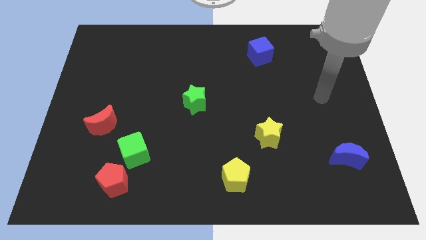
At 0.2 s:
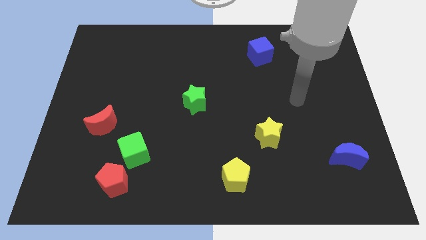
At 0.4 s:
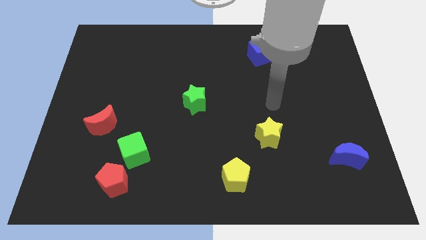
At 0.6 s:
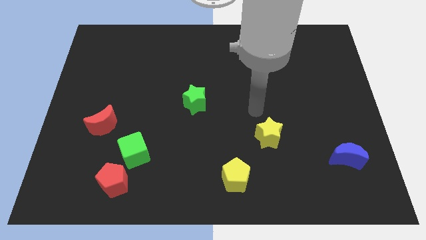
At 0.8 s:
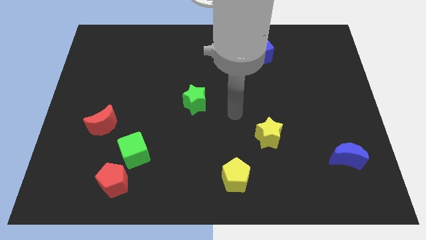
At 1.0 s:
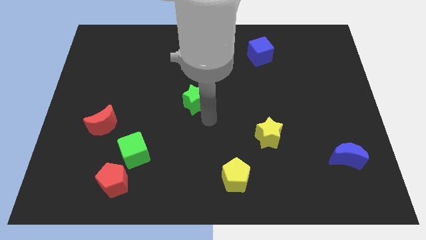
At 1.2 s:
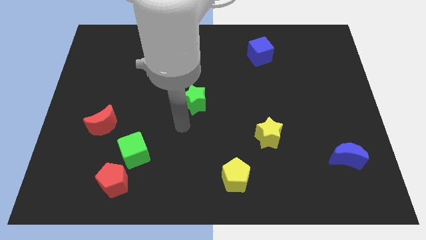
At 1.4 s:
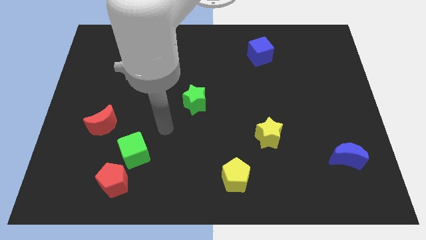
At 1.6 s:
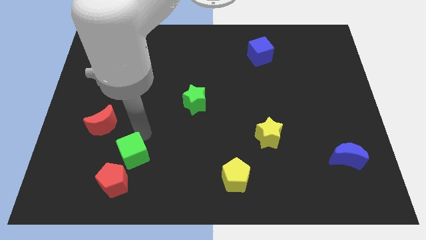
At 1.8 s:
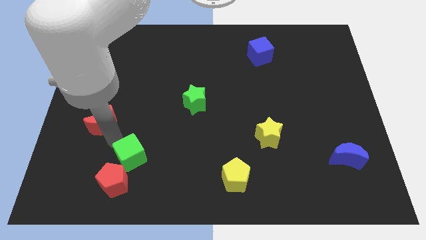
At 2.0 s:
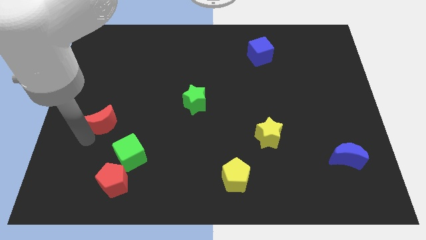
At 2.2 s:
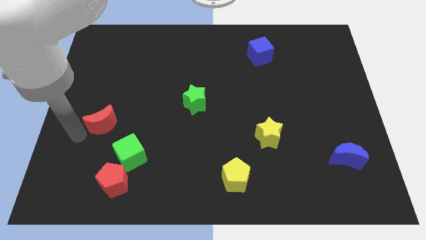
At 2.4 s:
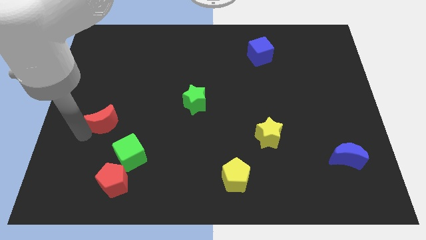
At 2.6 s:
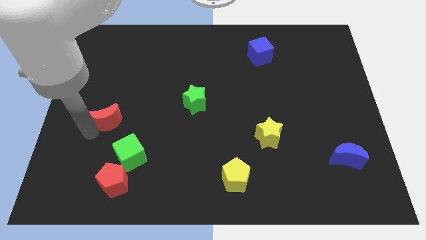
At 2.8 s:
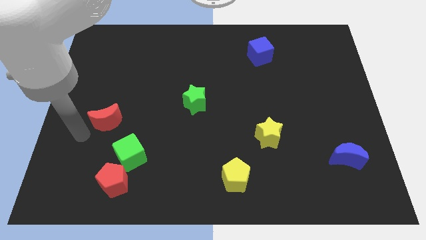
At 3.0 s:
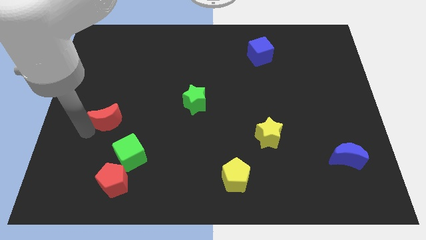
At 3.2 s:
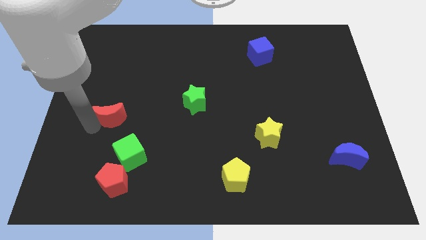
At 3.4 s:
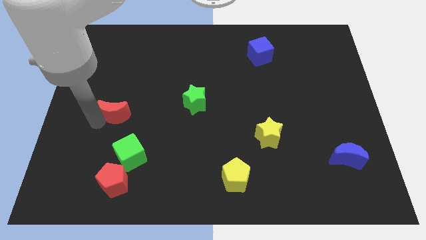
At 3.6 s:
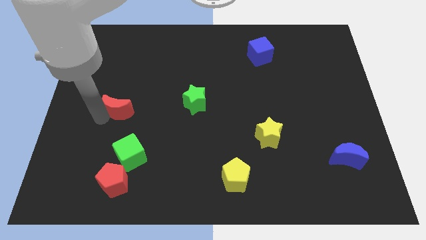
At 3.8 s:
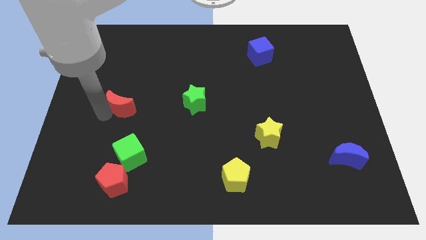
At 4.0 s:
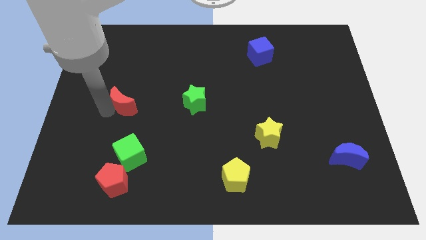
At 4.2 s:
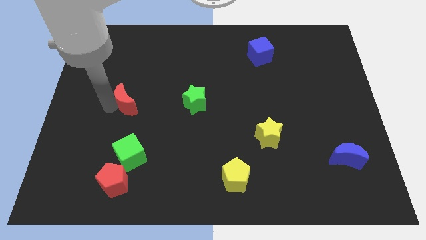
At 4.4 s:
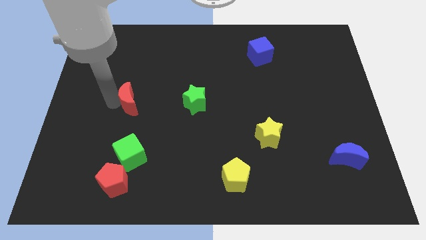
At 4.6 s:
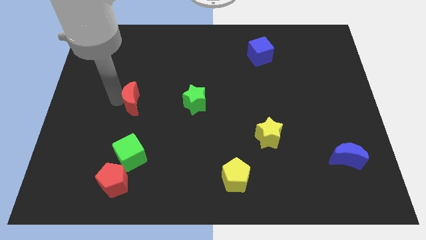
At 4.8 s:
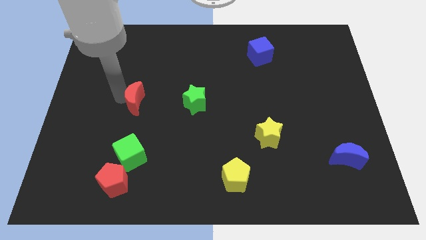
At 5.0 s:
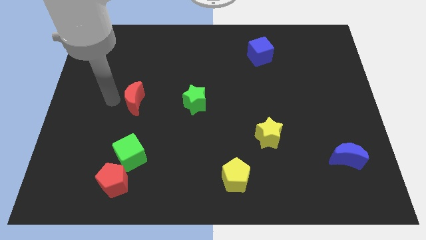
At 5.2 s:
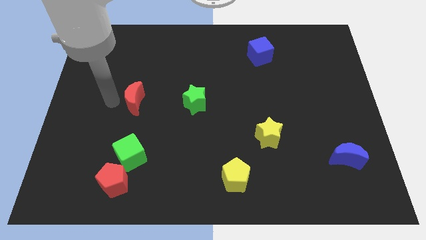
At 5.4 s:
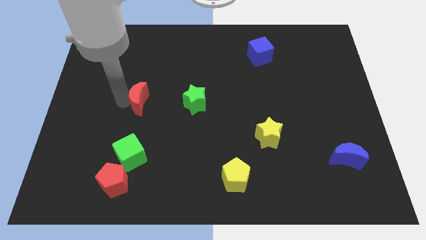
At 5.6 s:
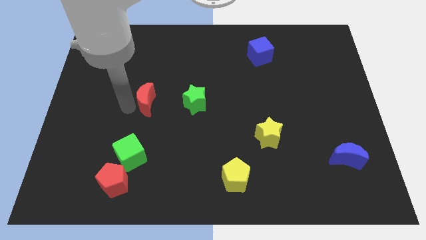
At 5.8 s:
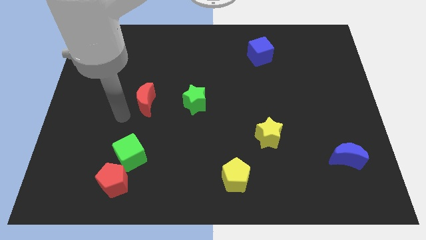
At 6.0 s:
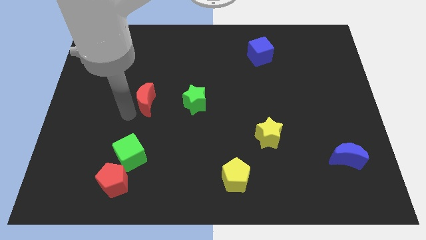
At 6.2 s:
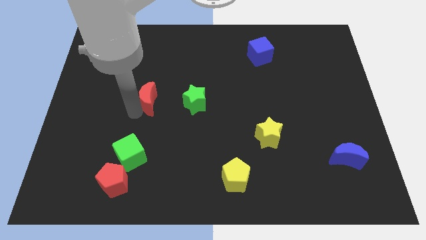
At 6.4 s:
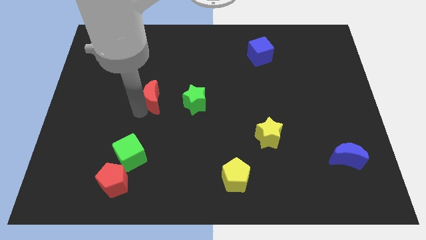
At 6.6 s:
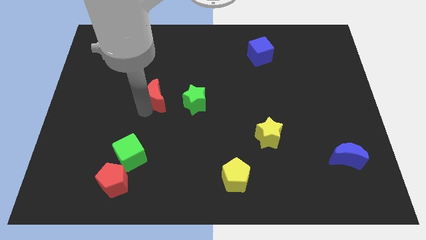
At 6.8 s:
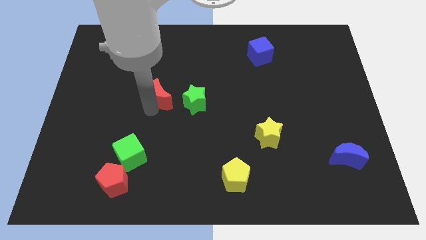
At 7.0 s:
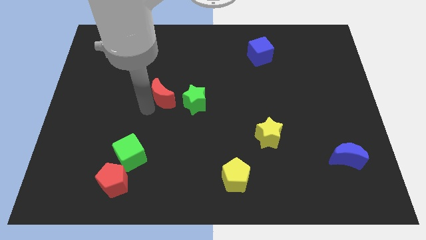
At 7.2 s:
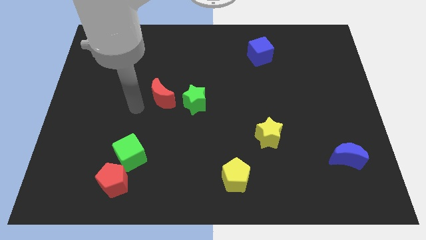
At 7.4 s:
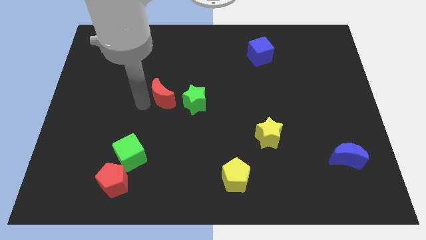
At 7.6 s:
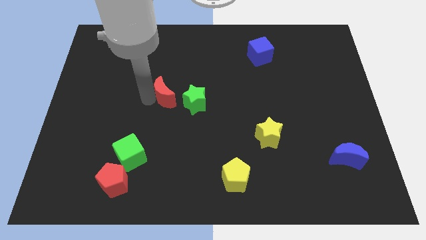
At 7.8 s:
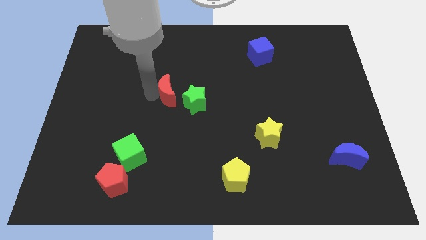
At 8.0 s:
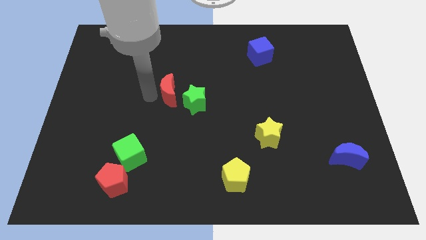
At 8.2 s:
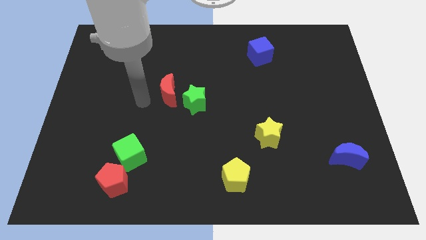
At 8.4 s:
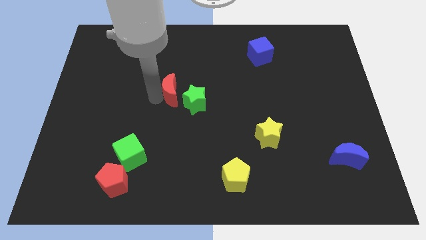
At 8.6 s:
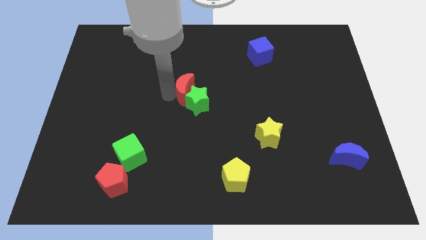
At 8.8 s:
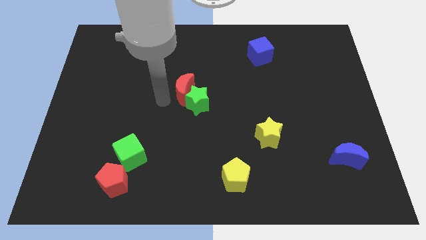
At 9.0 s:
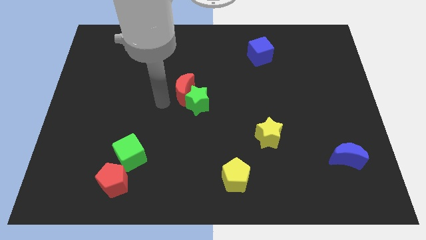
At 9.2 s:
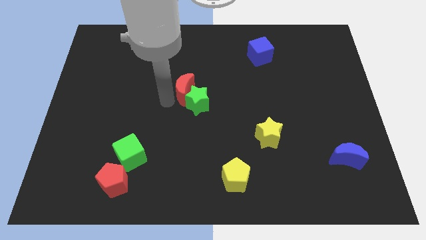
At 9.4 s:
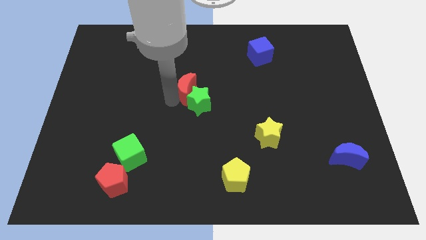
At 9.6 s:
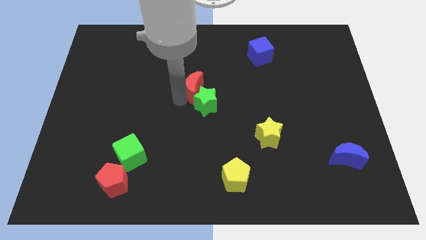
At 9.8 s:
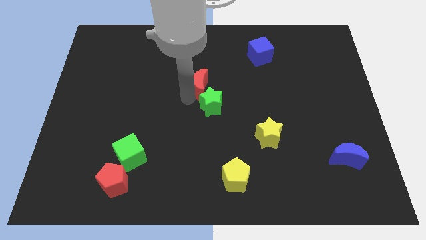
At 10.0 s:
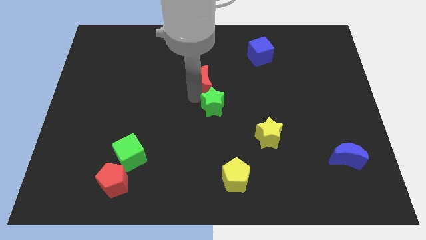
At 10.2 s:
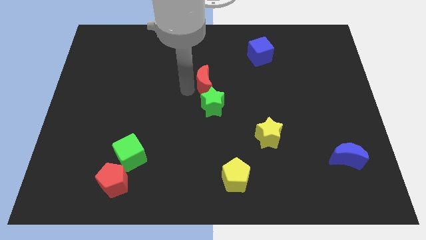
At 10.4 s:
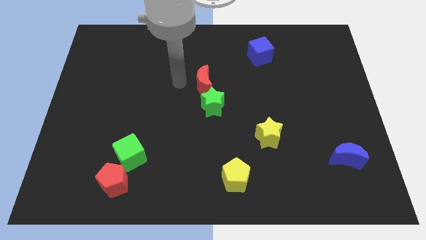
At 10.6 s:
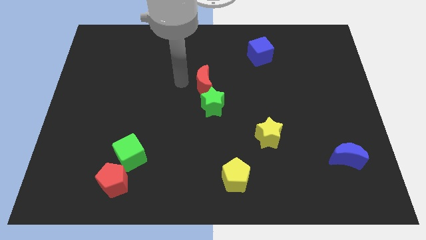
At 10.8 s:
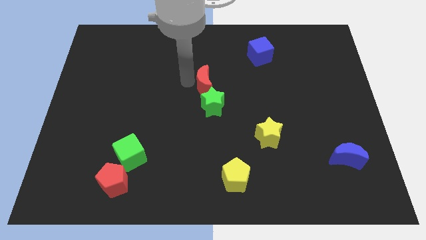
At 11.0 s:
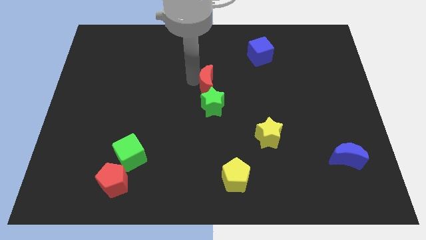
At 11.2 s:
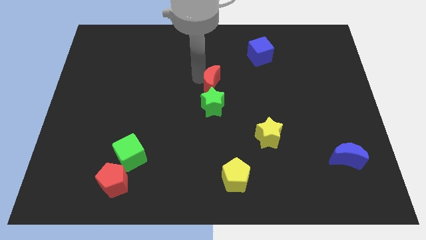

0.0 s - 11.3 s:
put the red moon diagonally up and to the right of the green star

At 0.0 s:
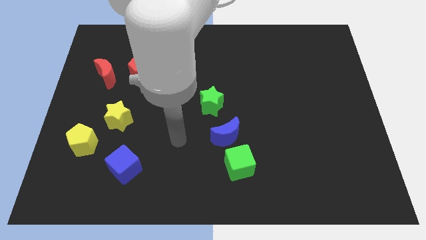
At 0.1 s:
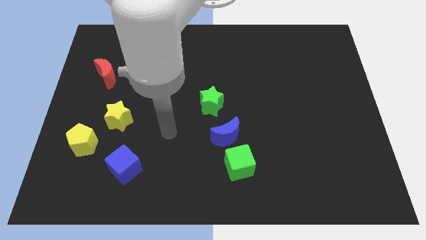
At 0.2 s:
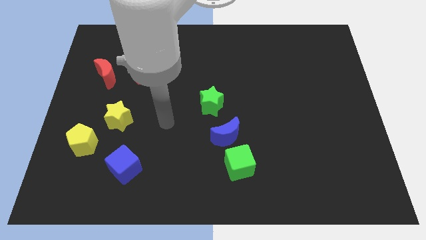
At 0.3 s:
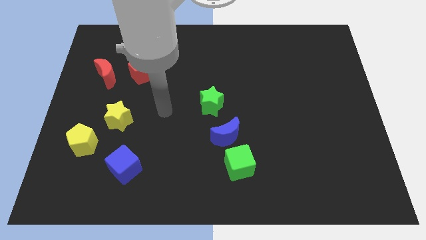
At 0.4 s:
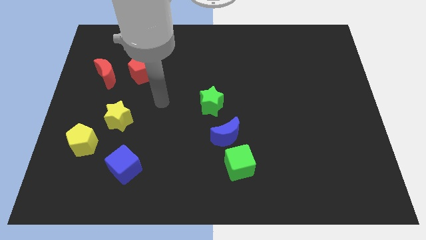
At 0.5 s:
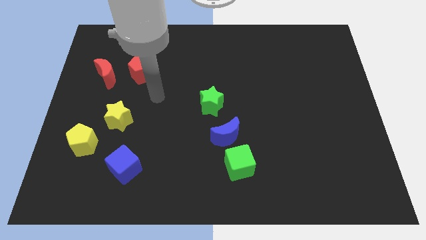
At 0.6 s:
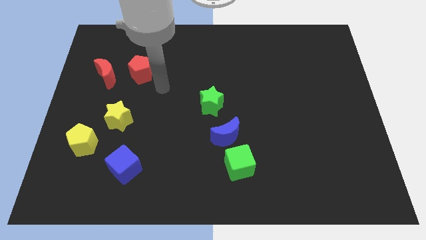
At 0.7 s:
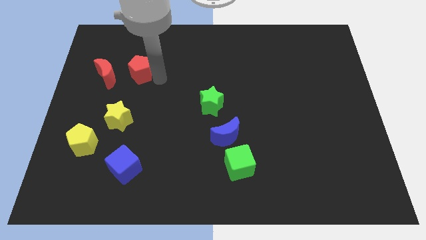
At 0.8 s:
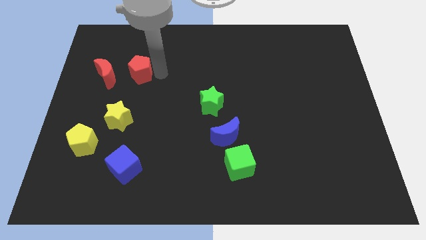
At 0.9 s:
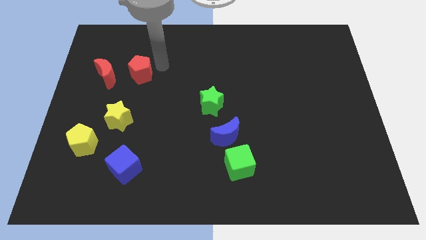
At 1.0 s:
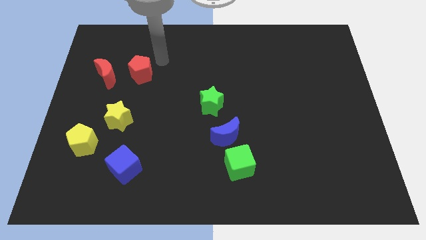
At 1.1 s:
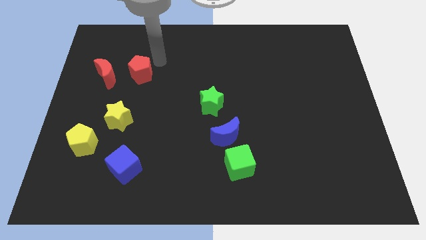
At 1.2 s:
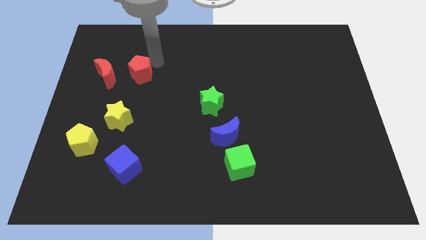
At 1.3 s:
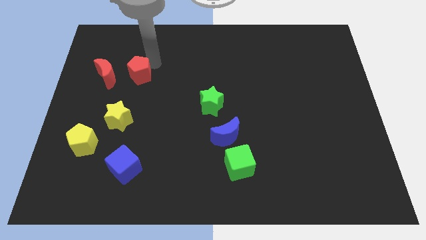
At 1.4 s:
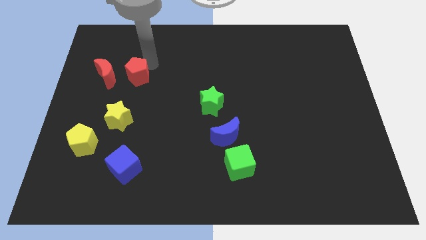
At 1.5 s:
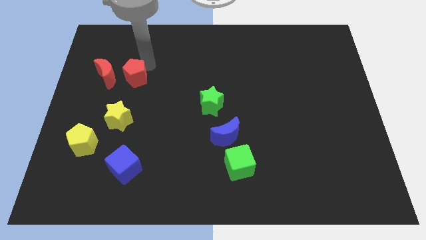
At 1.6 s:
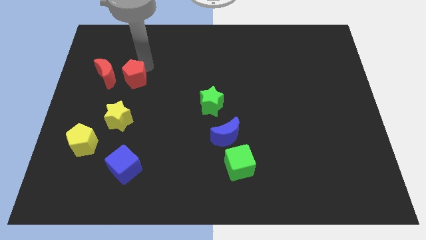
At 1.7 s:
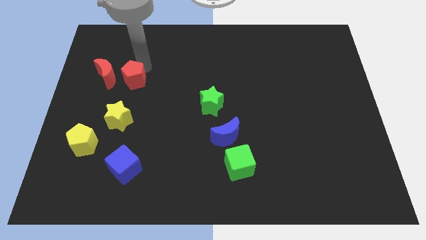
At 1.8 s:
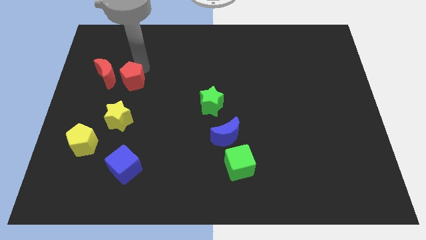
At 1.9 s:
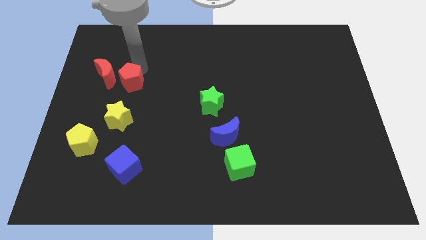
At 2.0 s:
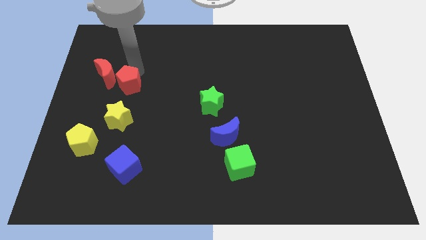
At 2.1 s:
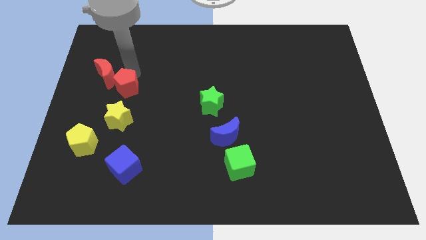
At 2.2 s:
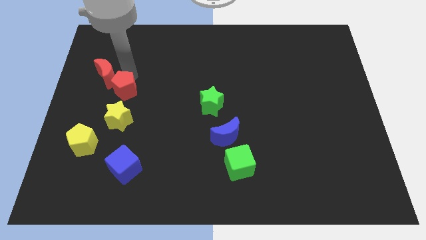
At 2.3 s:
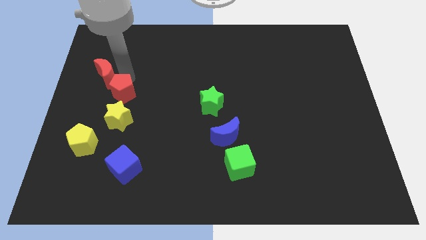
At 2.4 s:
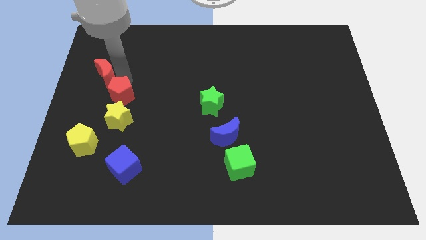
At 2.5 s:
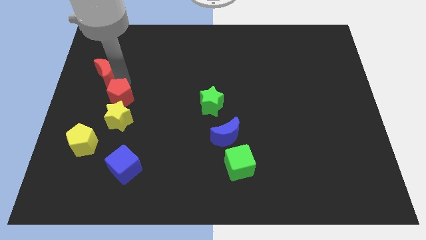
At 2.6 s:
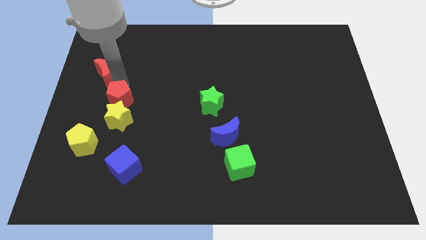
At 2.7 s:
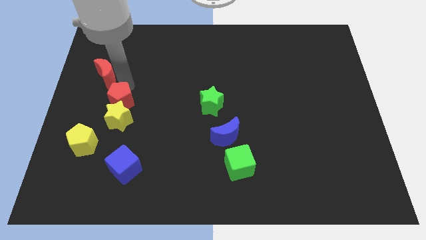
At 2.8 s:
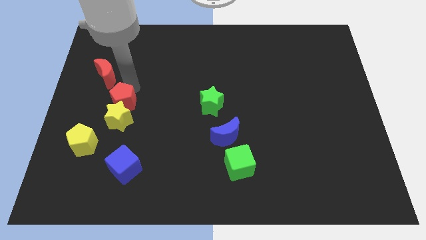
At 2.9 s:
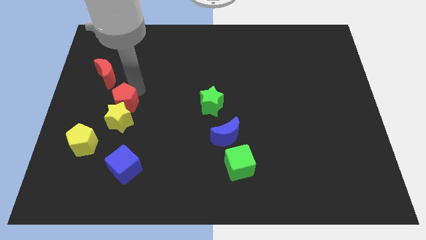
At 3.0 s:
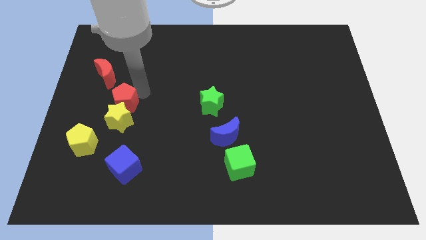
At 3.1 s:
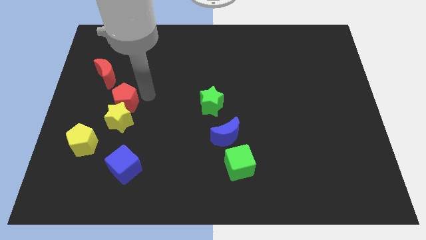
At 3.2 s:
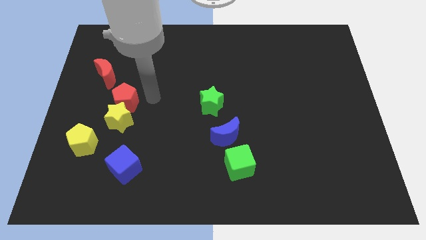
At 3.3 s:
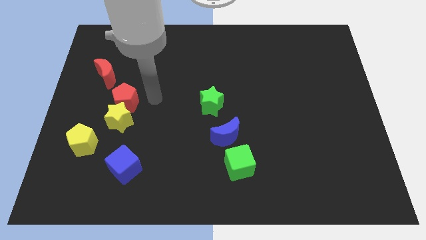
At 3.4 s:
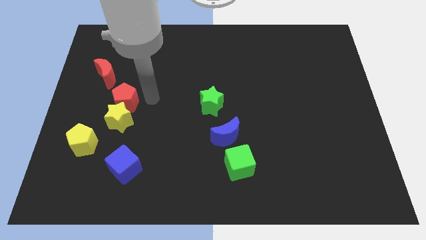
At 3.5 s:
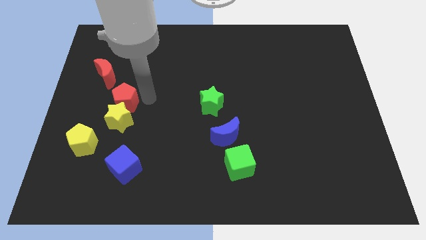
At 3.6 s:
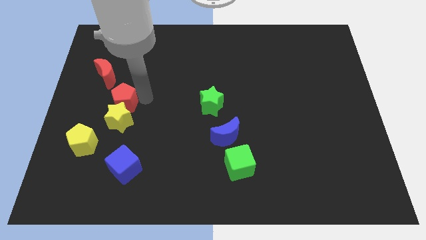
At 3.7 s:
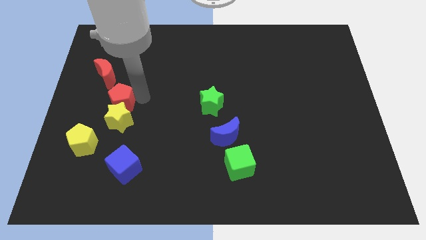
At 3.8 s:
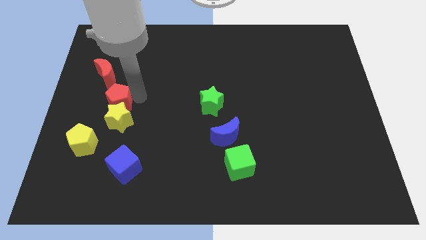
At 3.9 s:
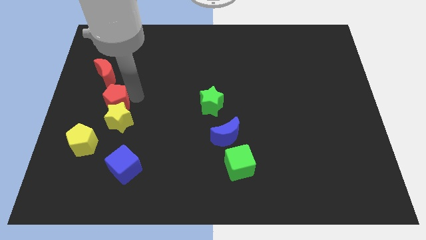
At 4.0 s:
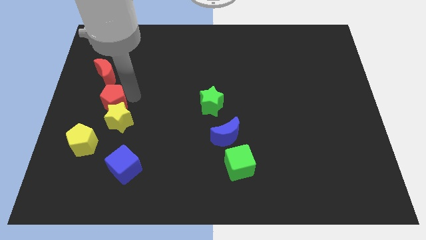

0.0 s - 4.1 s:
push the red pentagon to the top of the yellow pentagon
